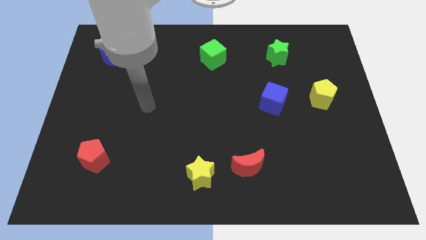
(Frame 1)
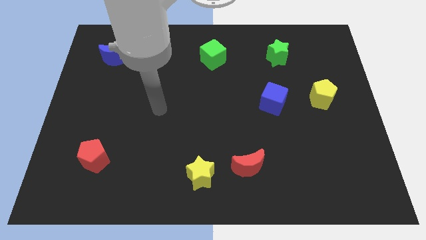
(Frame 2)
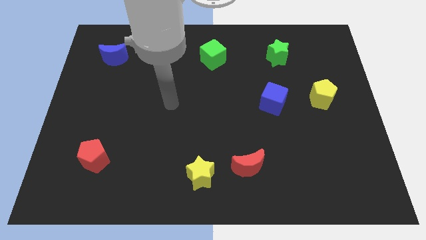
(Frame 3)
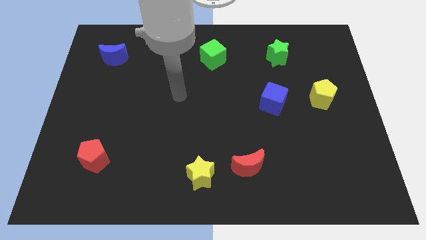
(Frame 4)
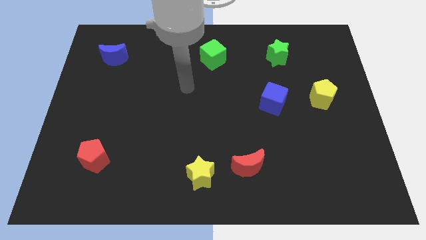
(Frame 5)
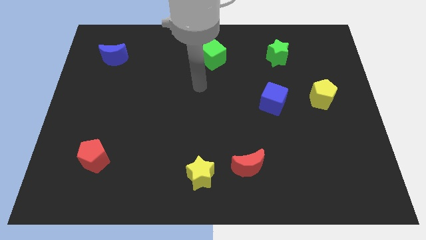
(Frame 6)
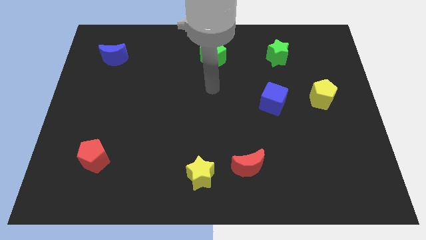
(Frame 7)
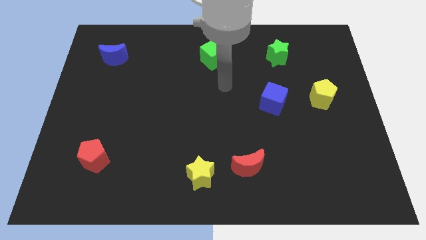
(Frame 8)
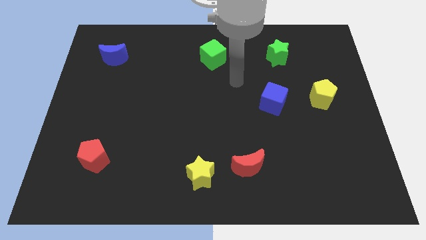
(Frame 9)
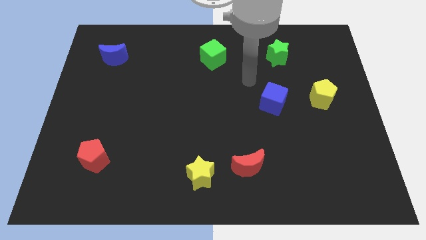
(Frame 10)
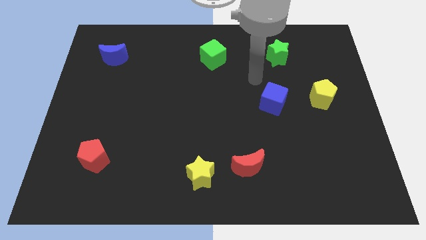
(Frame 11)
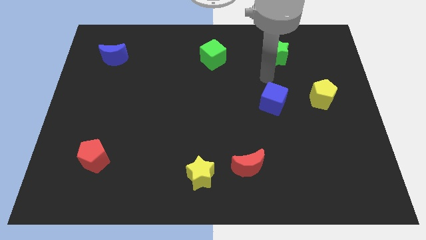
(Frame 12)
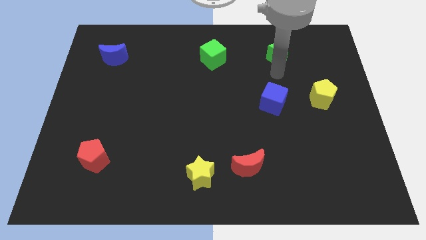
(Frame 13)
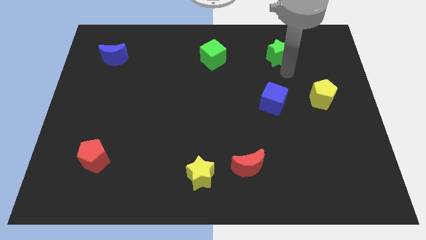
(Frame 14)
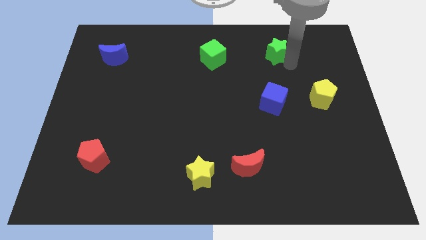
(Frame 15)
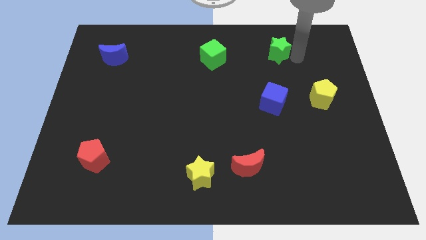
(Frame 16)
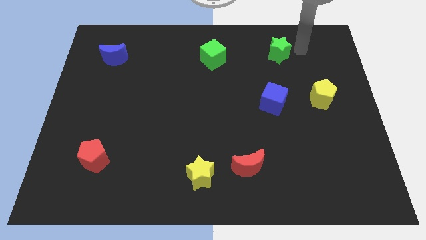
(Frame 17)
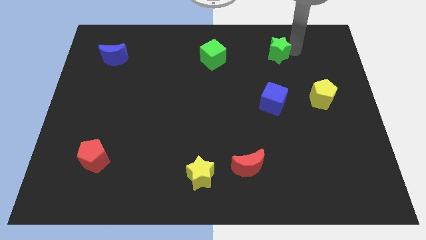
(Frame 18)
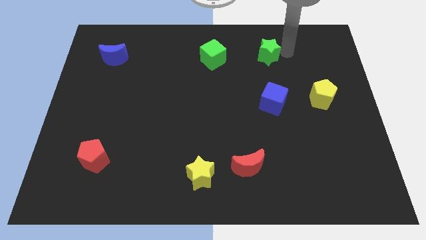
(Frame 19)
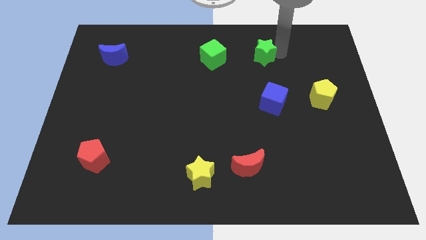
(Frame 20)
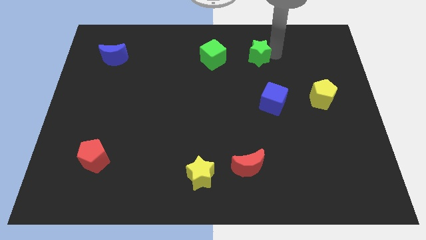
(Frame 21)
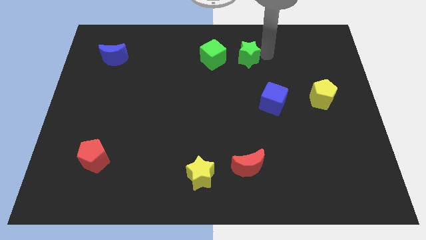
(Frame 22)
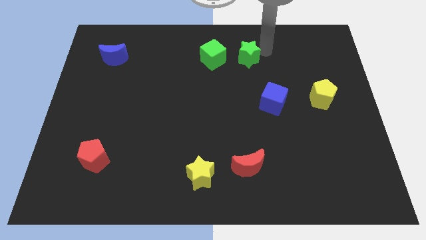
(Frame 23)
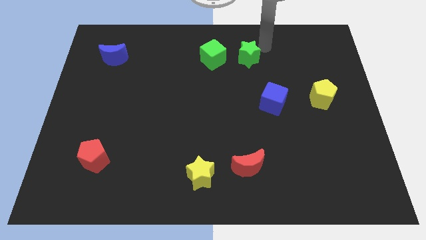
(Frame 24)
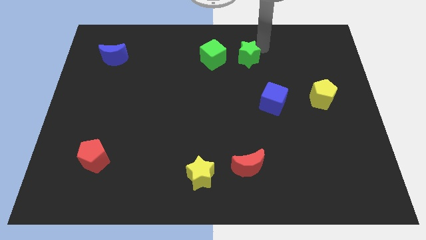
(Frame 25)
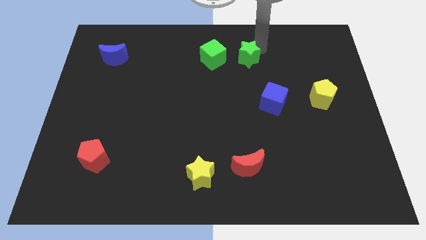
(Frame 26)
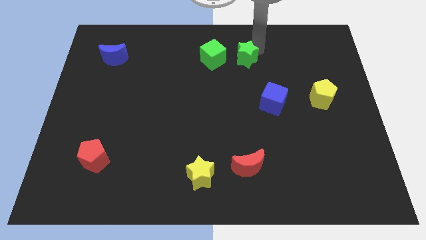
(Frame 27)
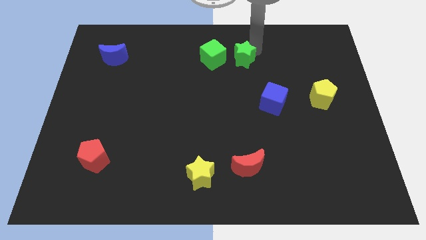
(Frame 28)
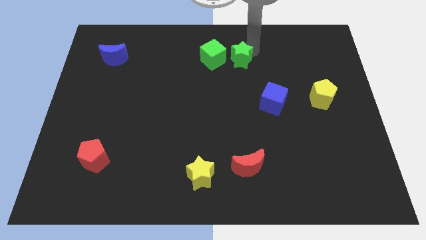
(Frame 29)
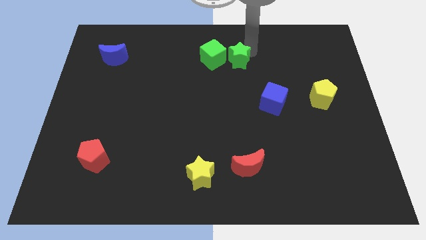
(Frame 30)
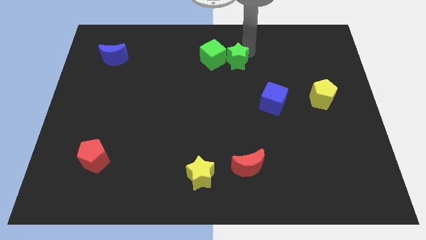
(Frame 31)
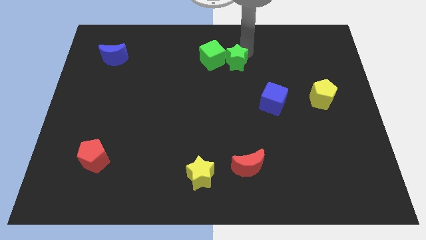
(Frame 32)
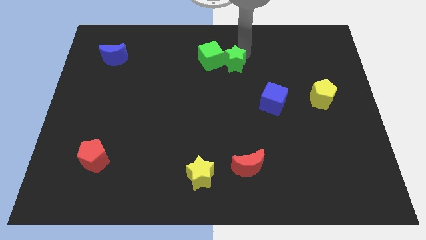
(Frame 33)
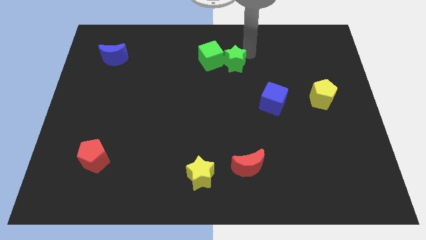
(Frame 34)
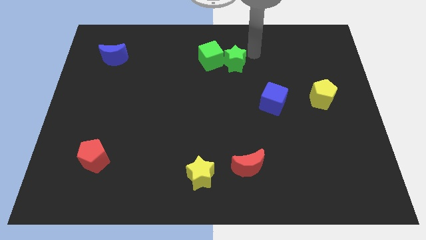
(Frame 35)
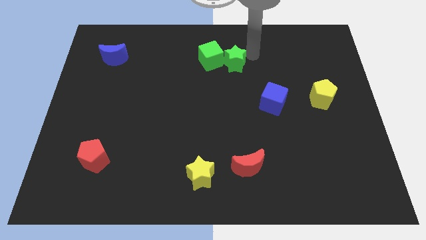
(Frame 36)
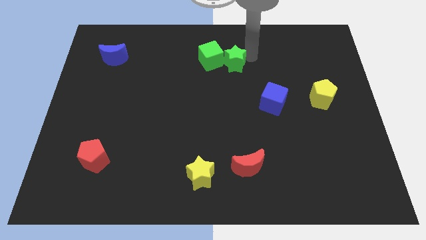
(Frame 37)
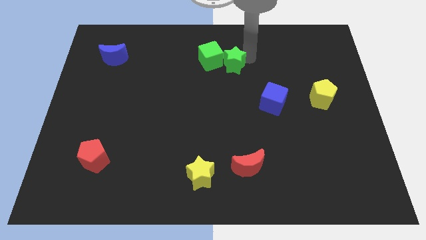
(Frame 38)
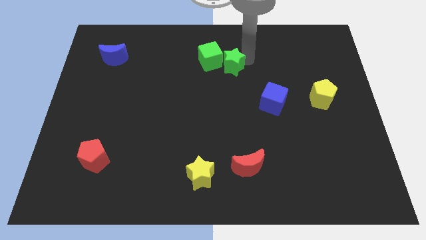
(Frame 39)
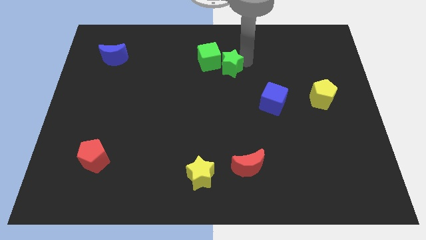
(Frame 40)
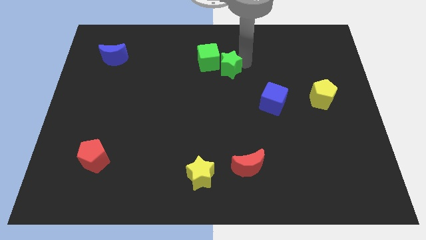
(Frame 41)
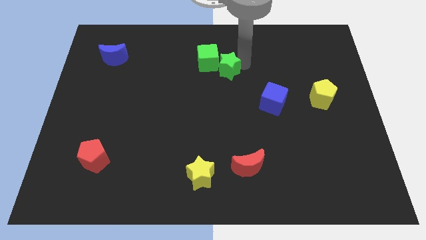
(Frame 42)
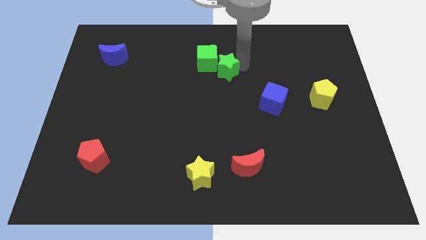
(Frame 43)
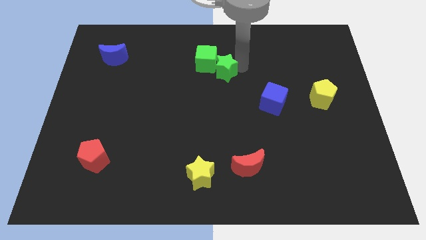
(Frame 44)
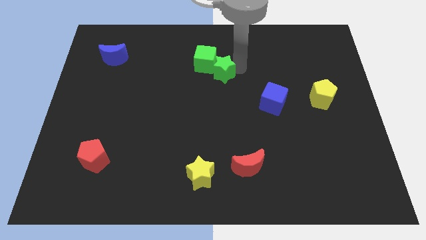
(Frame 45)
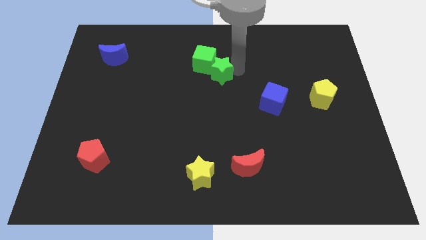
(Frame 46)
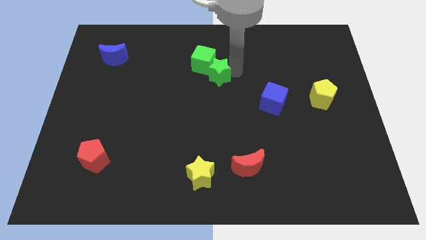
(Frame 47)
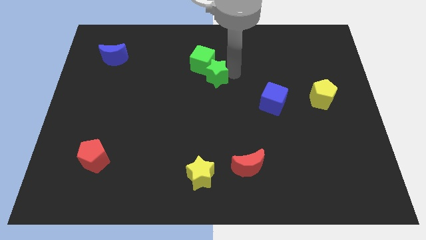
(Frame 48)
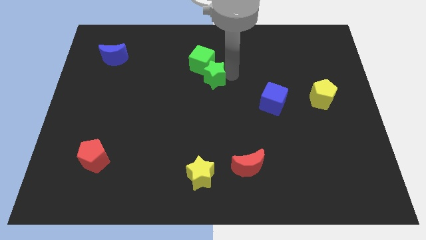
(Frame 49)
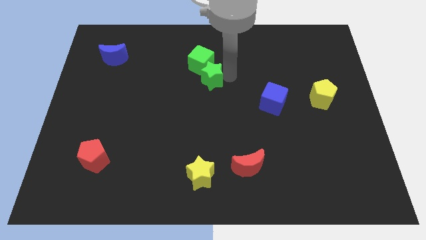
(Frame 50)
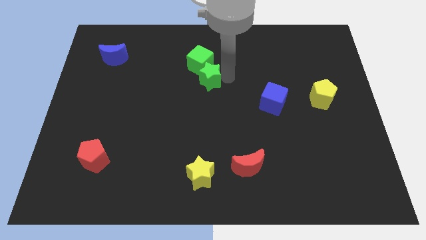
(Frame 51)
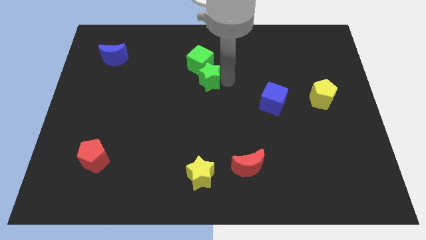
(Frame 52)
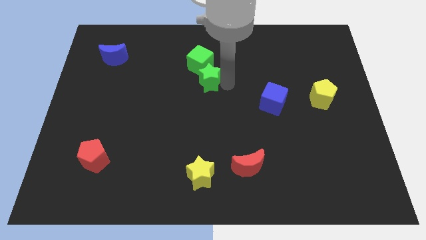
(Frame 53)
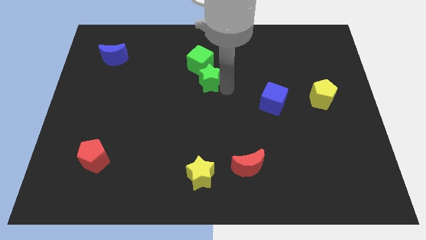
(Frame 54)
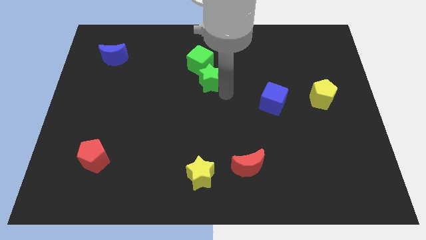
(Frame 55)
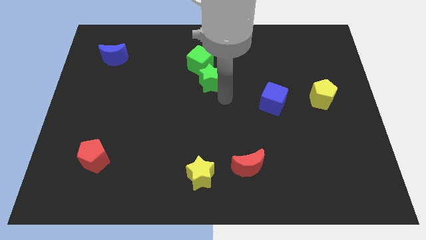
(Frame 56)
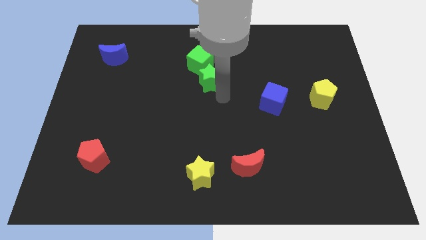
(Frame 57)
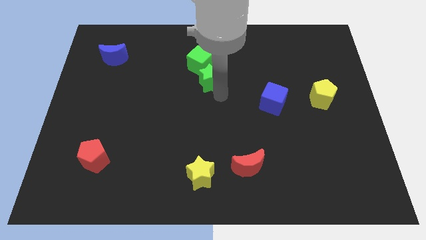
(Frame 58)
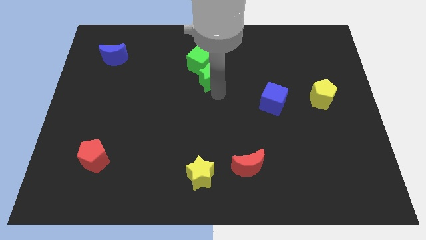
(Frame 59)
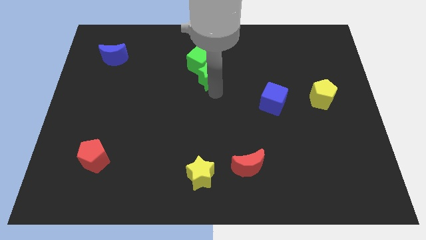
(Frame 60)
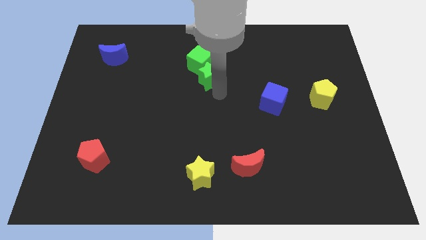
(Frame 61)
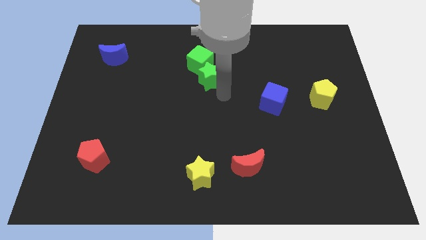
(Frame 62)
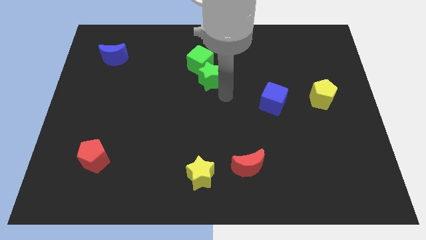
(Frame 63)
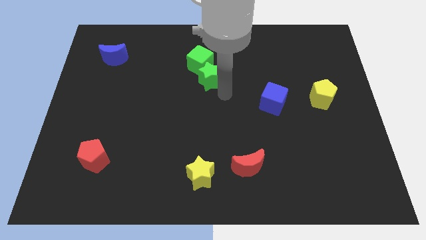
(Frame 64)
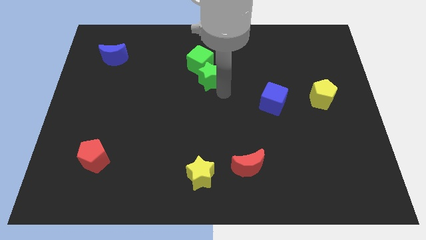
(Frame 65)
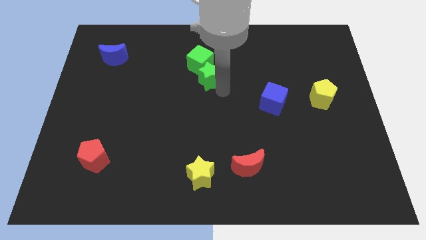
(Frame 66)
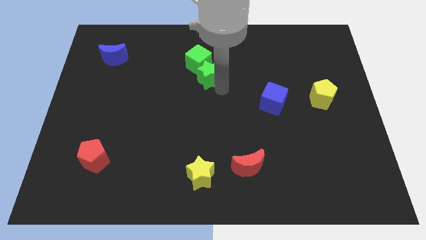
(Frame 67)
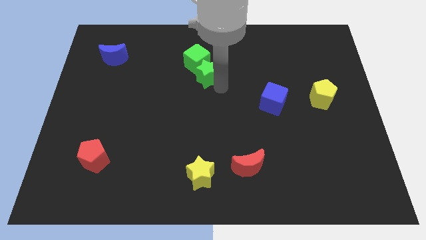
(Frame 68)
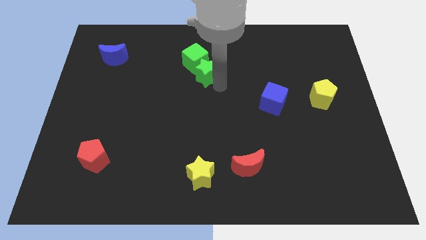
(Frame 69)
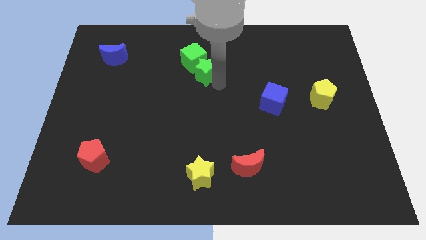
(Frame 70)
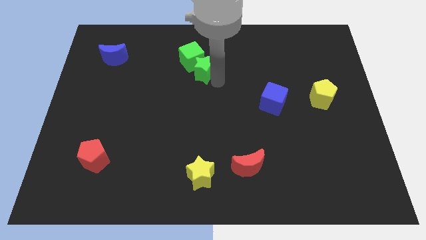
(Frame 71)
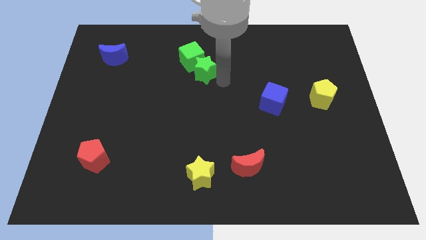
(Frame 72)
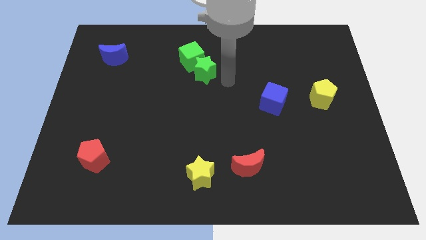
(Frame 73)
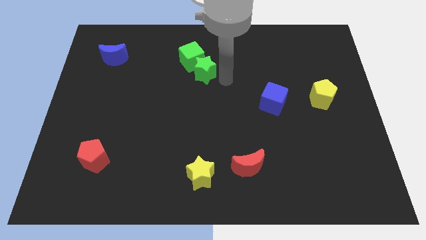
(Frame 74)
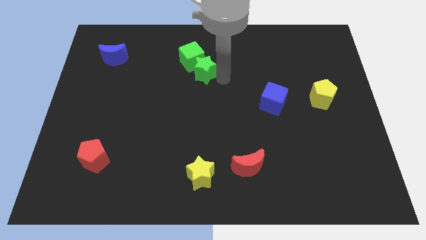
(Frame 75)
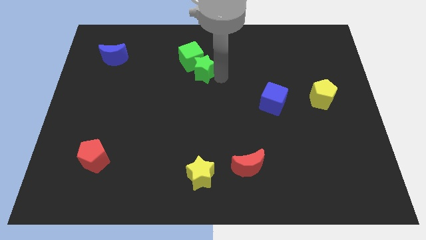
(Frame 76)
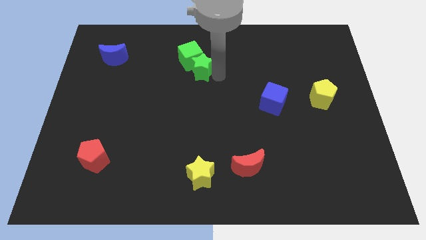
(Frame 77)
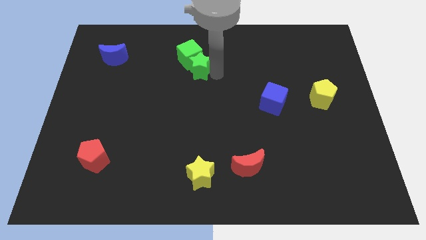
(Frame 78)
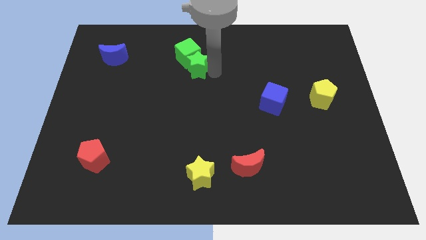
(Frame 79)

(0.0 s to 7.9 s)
move the green star to the left
